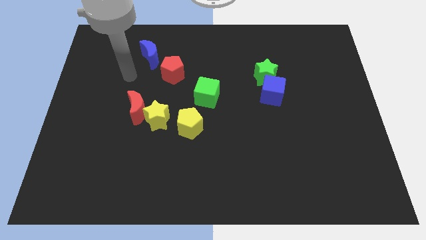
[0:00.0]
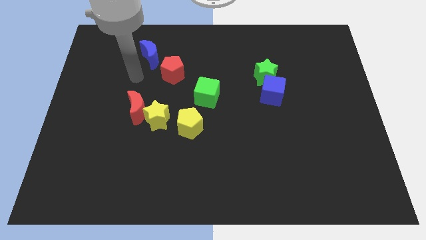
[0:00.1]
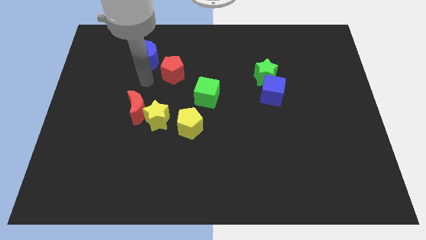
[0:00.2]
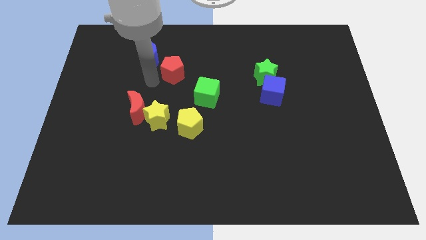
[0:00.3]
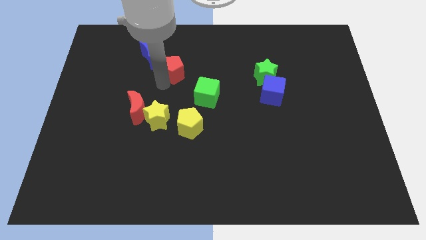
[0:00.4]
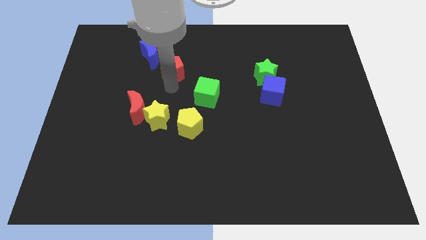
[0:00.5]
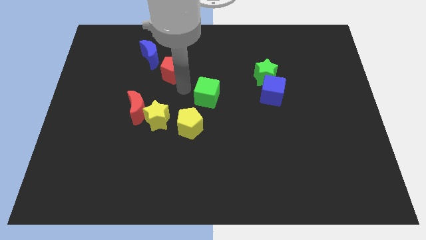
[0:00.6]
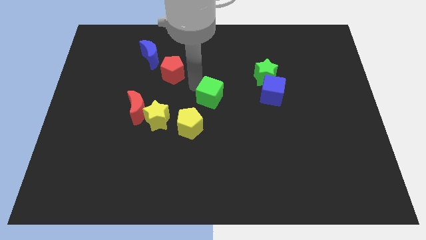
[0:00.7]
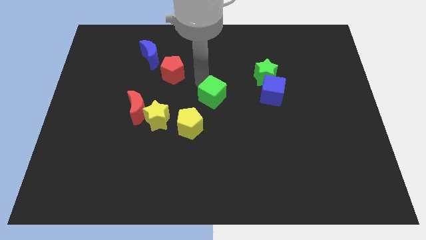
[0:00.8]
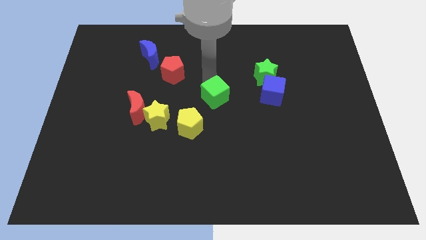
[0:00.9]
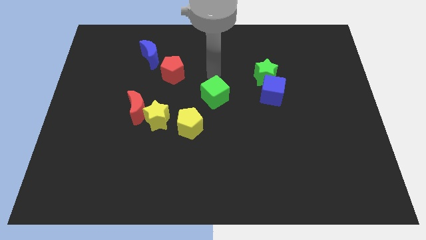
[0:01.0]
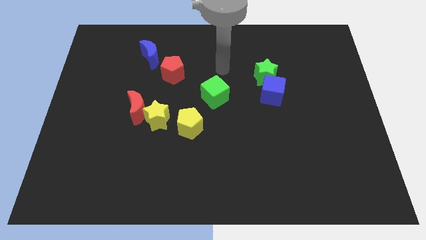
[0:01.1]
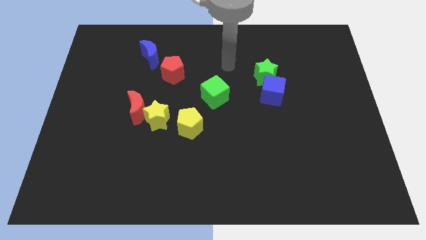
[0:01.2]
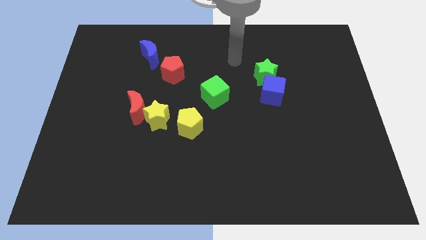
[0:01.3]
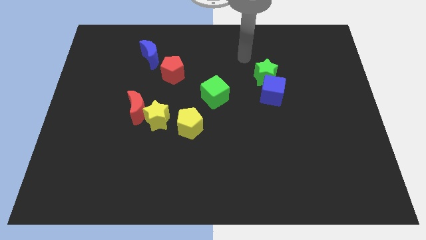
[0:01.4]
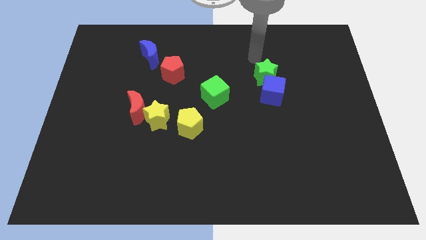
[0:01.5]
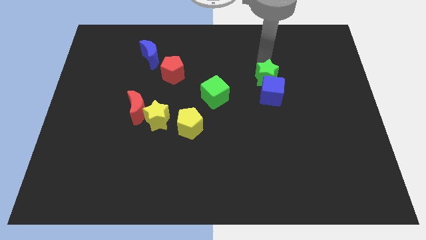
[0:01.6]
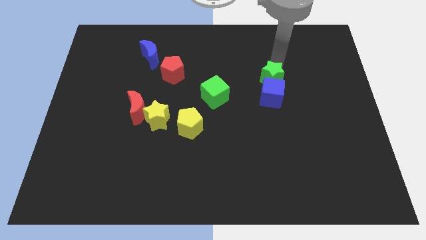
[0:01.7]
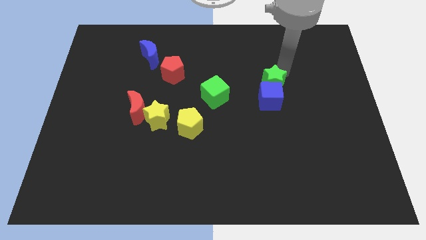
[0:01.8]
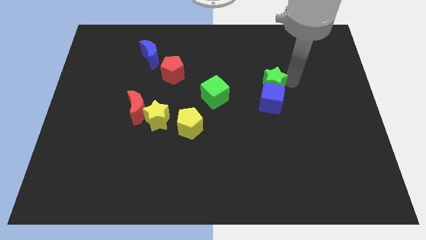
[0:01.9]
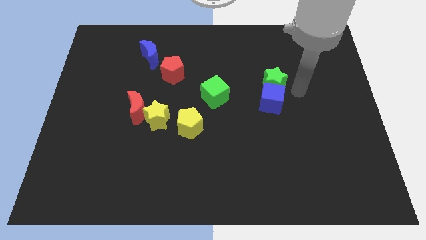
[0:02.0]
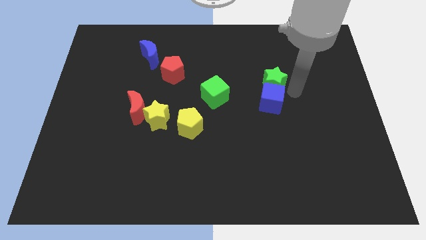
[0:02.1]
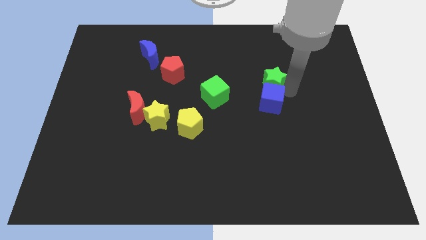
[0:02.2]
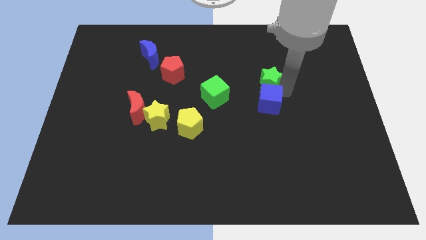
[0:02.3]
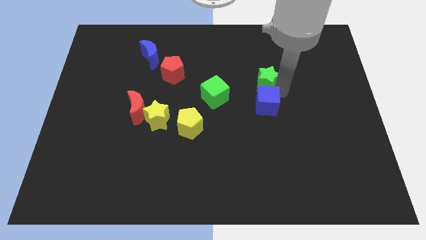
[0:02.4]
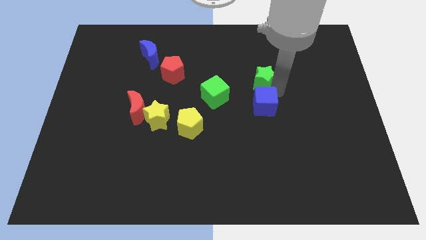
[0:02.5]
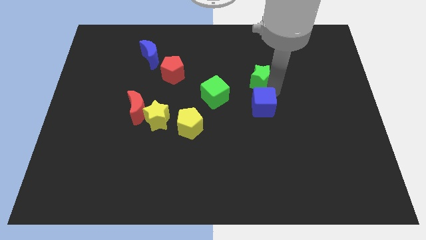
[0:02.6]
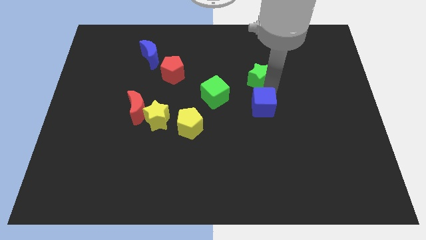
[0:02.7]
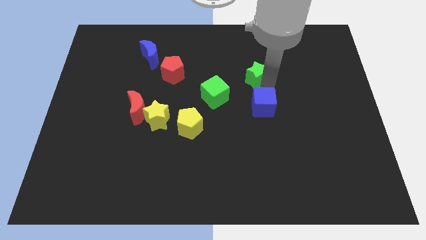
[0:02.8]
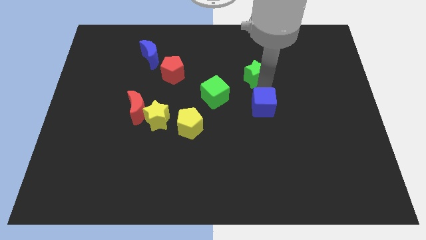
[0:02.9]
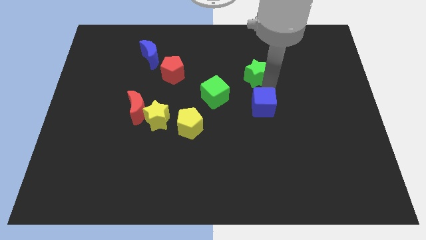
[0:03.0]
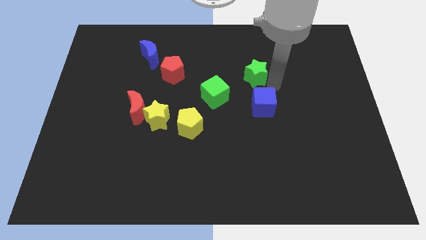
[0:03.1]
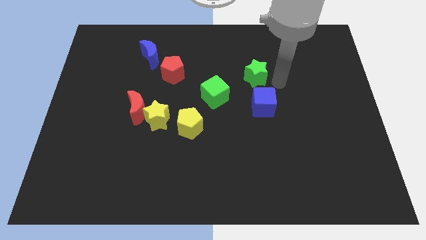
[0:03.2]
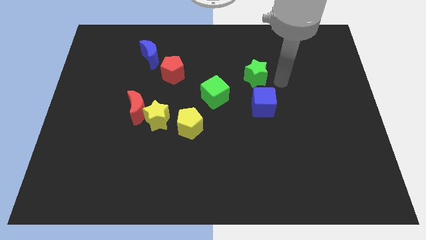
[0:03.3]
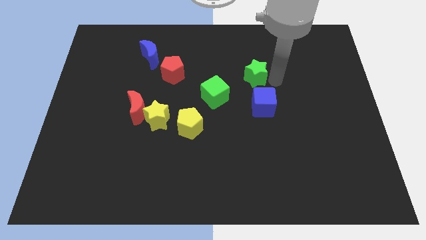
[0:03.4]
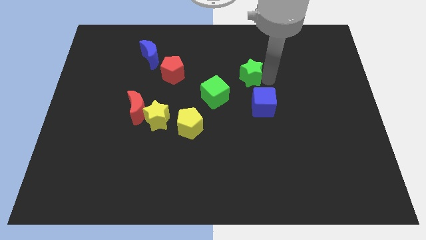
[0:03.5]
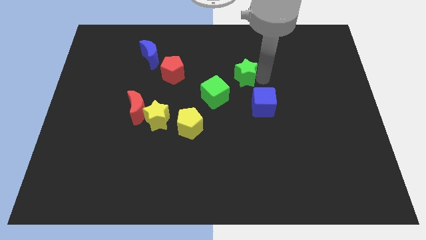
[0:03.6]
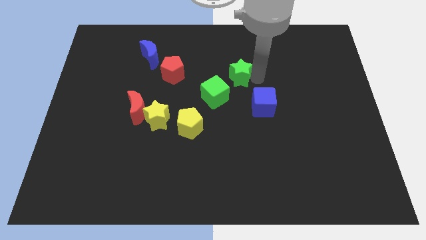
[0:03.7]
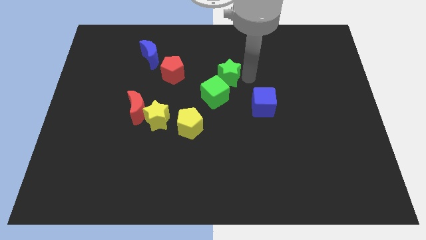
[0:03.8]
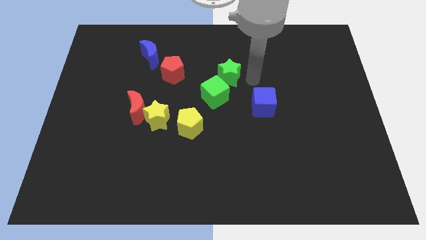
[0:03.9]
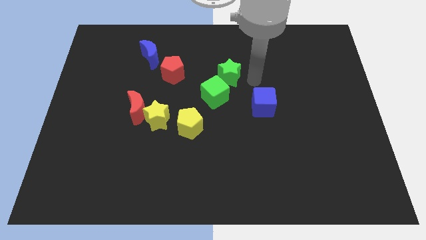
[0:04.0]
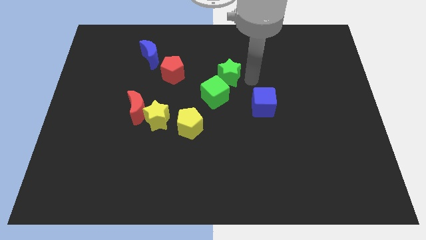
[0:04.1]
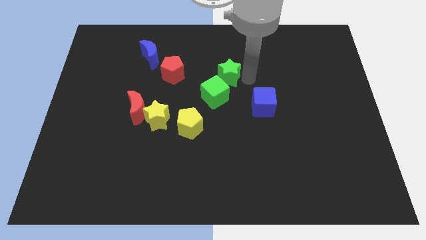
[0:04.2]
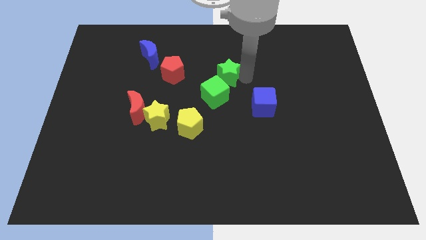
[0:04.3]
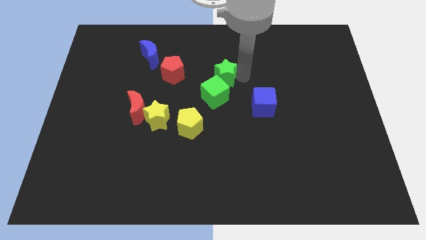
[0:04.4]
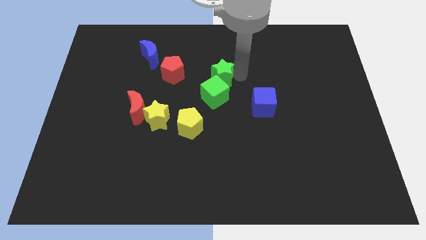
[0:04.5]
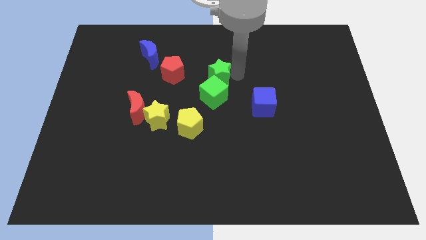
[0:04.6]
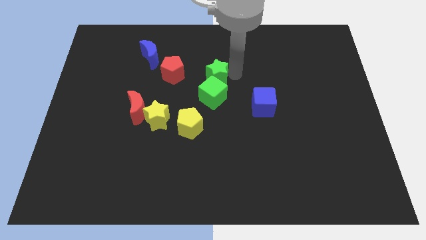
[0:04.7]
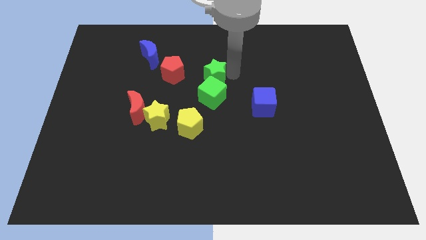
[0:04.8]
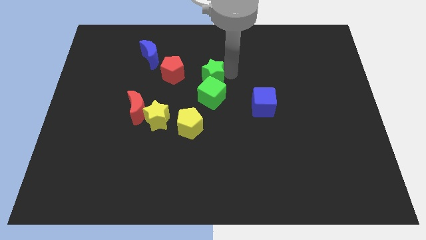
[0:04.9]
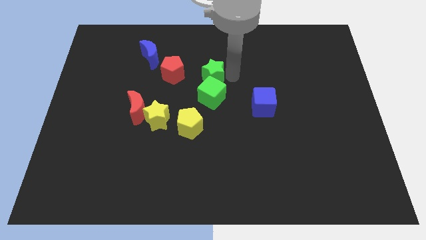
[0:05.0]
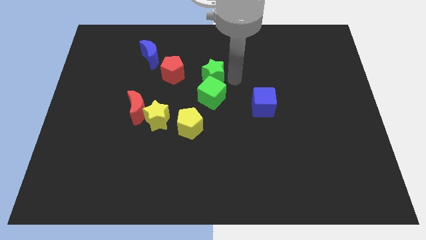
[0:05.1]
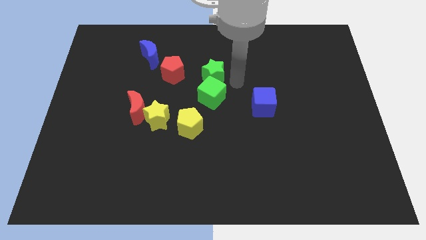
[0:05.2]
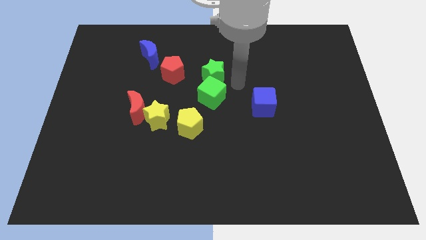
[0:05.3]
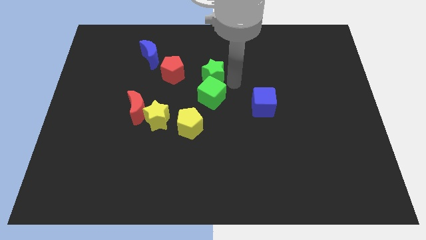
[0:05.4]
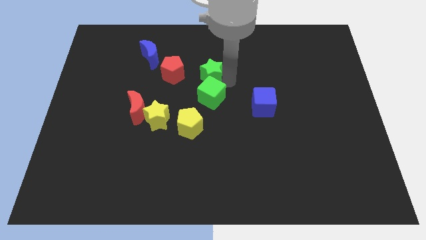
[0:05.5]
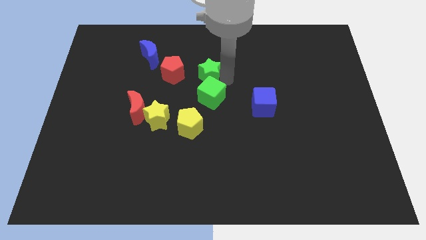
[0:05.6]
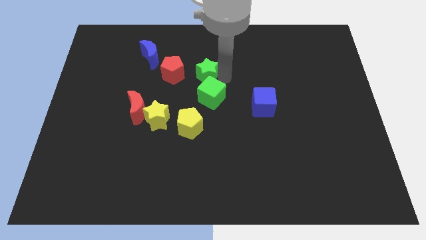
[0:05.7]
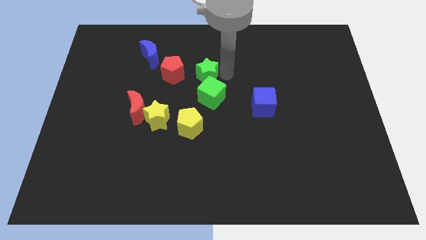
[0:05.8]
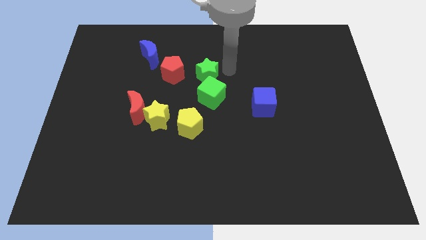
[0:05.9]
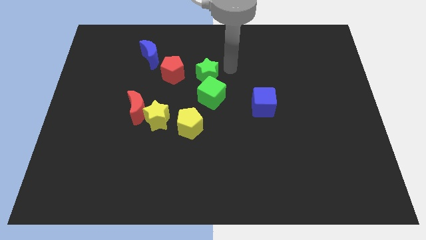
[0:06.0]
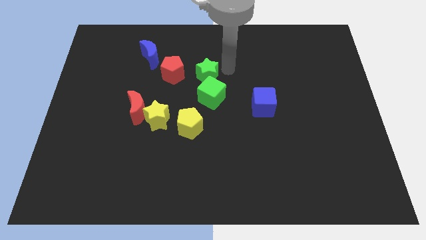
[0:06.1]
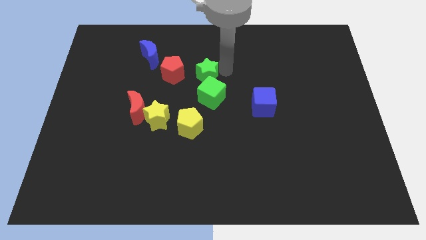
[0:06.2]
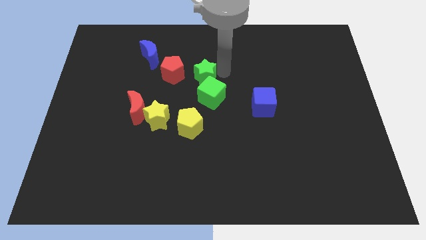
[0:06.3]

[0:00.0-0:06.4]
move the green star to the top side of the yellow pentagon

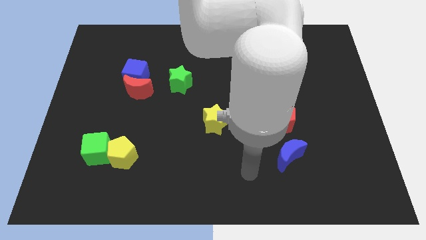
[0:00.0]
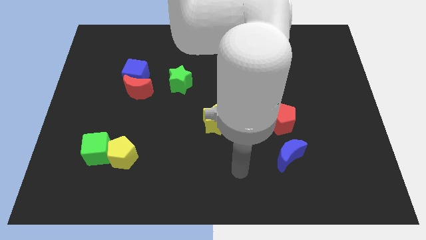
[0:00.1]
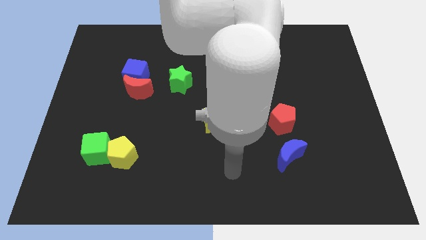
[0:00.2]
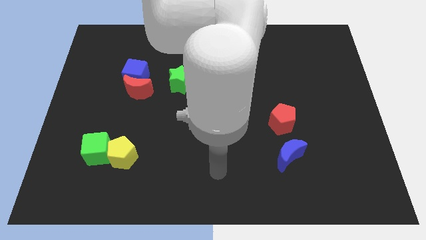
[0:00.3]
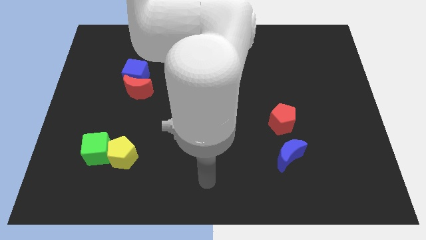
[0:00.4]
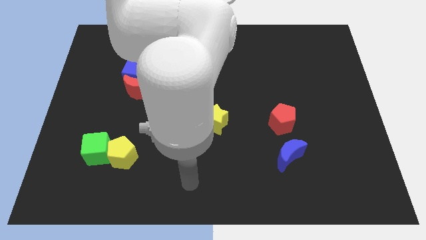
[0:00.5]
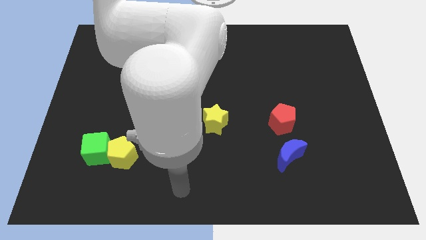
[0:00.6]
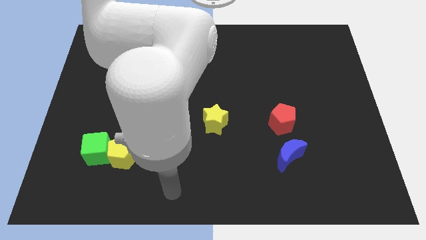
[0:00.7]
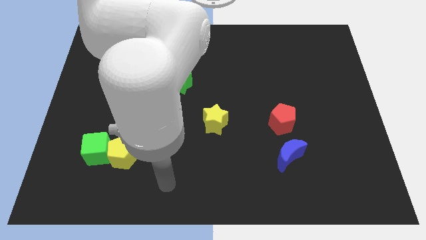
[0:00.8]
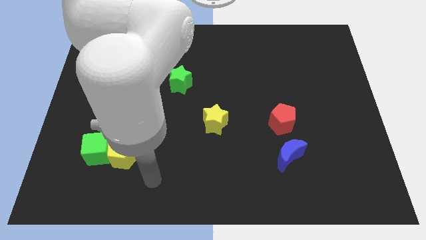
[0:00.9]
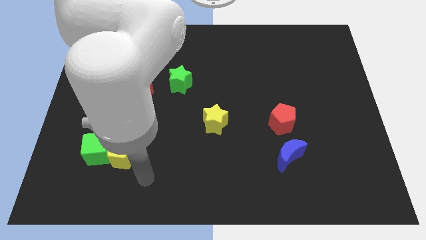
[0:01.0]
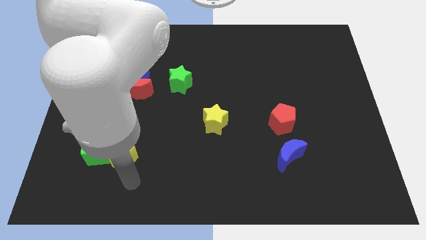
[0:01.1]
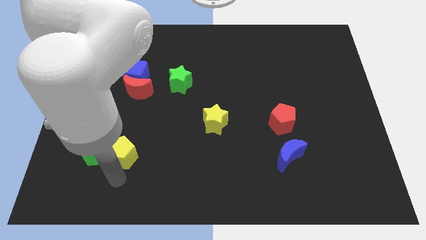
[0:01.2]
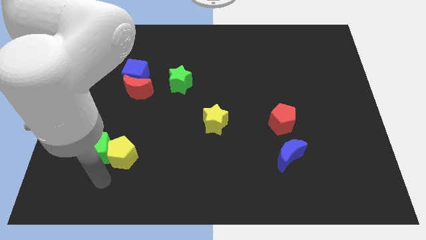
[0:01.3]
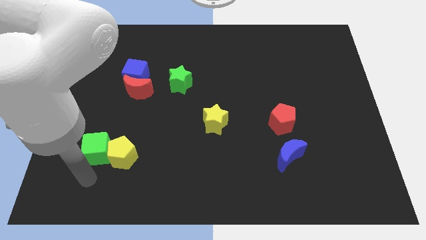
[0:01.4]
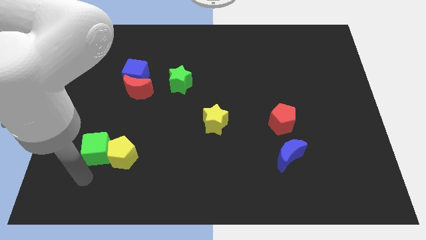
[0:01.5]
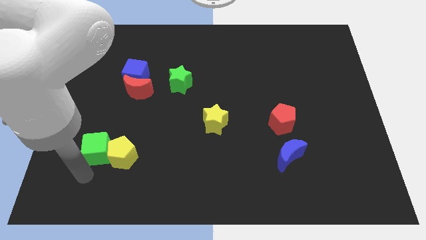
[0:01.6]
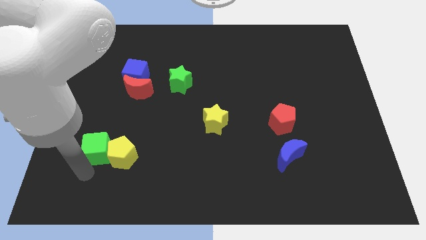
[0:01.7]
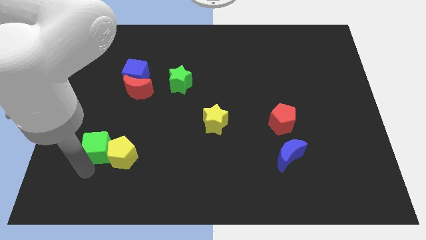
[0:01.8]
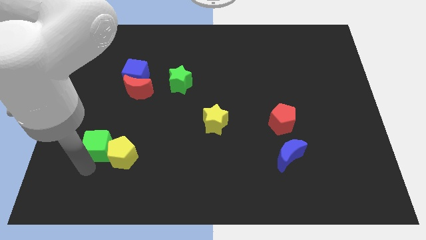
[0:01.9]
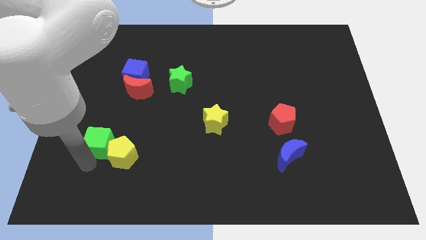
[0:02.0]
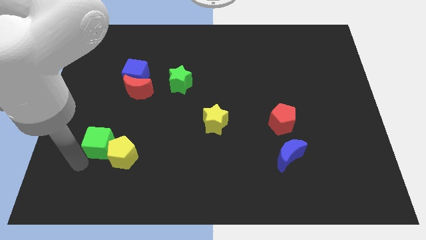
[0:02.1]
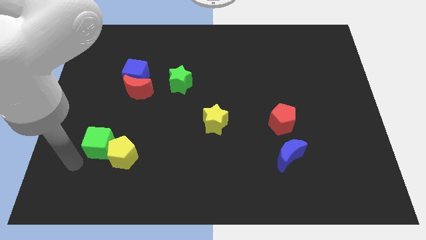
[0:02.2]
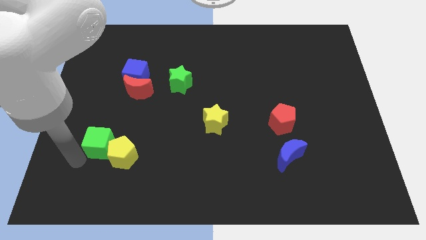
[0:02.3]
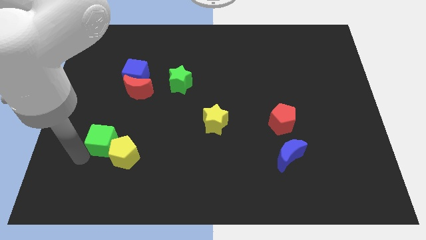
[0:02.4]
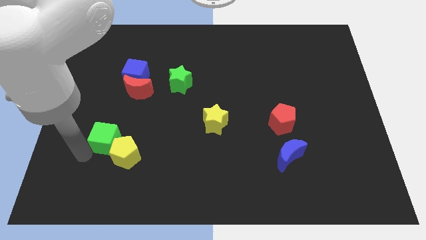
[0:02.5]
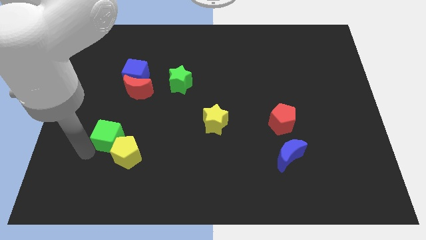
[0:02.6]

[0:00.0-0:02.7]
push the green cube to the bottom side of the red moon
